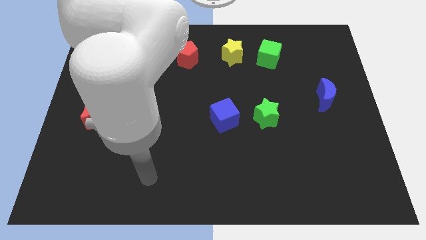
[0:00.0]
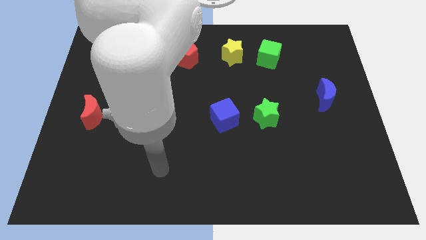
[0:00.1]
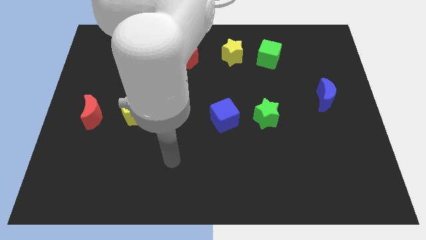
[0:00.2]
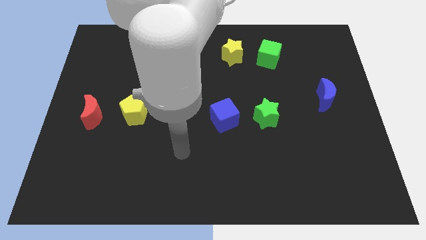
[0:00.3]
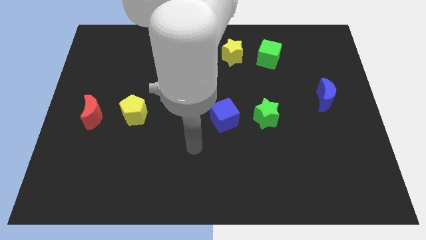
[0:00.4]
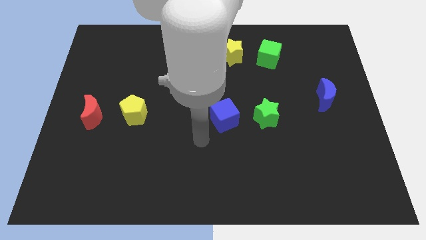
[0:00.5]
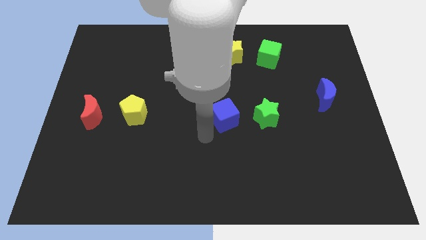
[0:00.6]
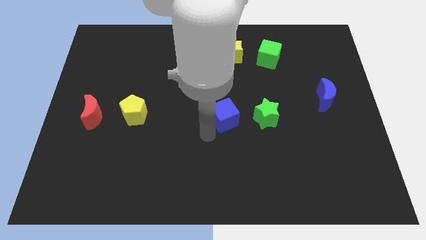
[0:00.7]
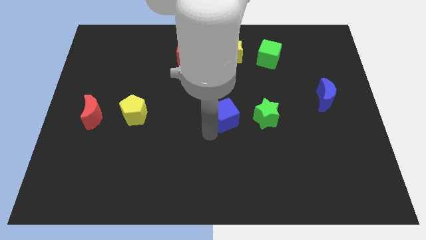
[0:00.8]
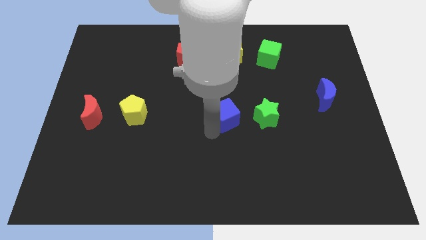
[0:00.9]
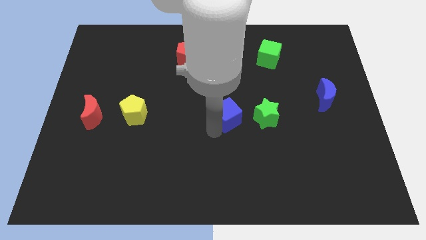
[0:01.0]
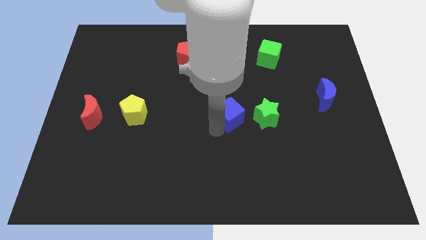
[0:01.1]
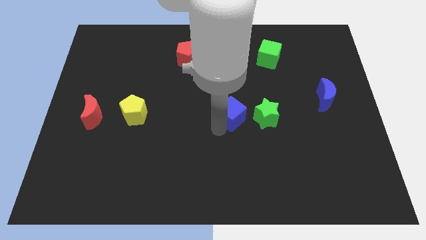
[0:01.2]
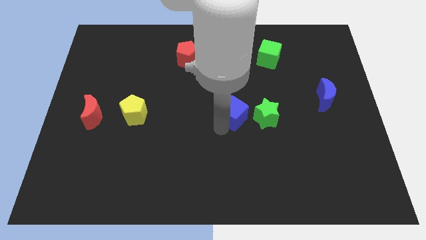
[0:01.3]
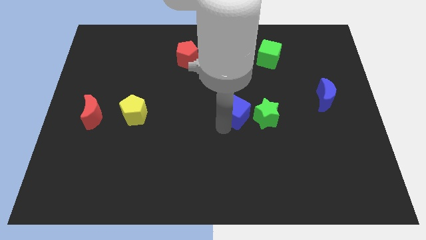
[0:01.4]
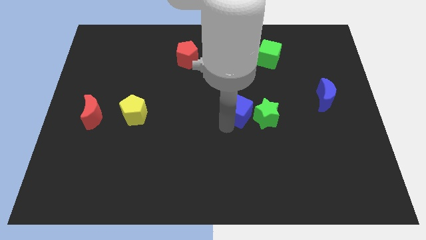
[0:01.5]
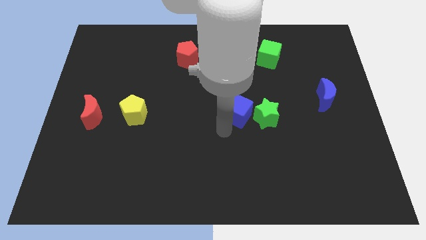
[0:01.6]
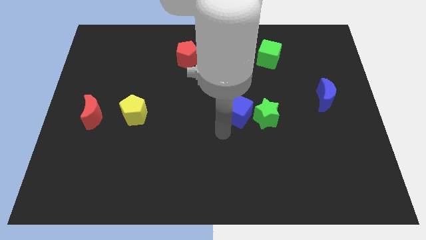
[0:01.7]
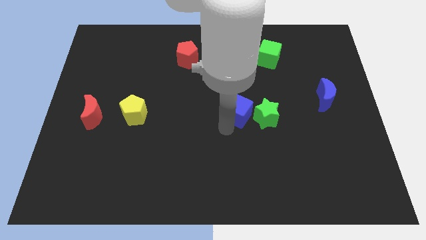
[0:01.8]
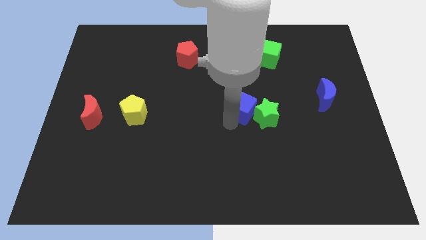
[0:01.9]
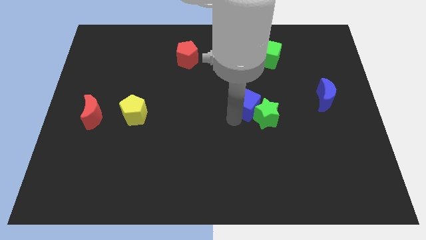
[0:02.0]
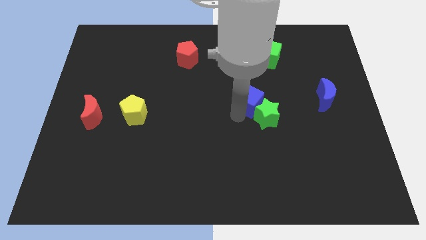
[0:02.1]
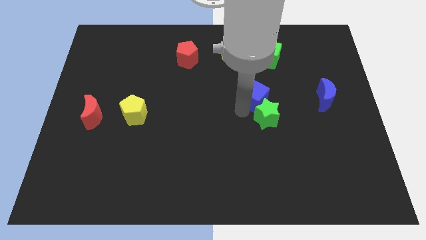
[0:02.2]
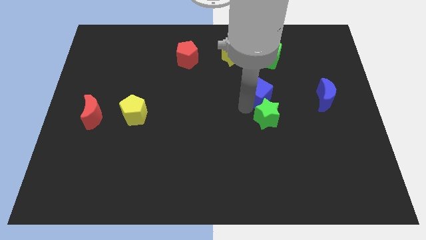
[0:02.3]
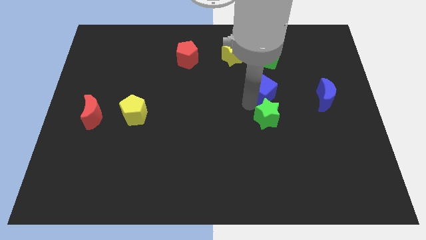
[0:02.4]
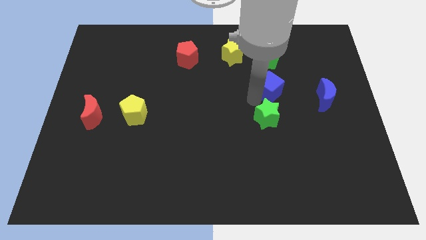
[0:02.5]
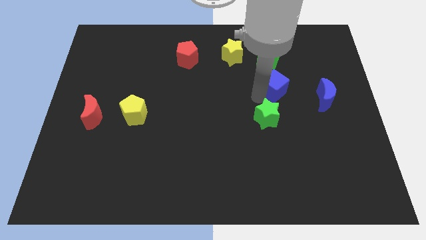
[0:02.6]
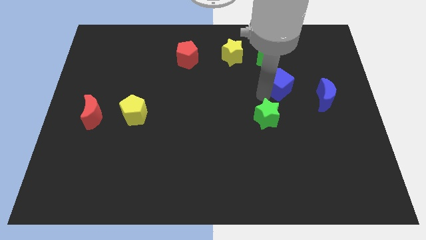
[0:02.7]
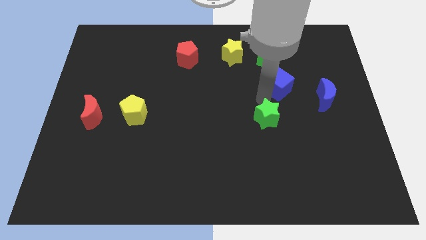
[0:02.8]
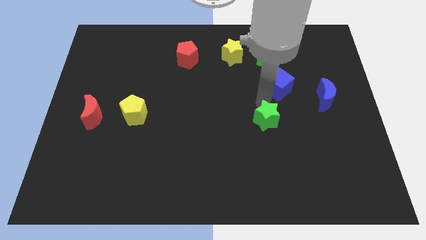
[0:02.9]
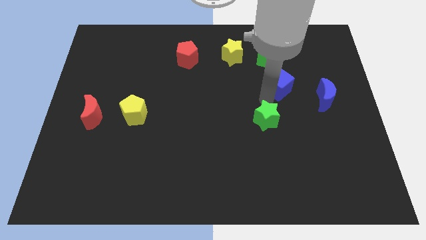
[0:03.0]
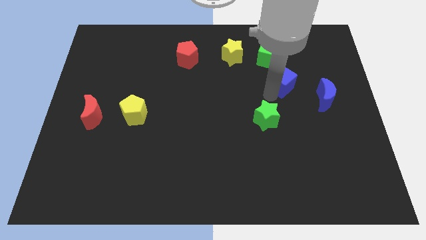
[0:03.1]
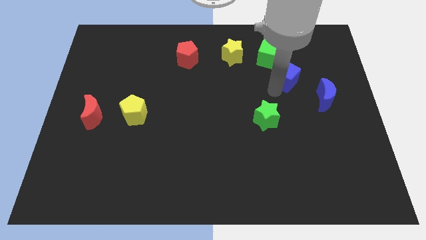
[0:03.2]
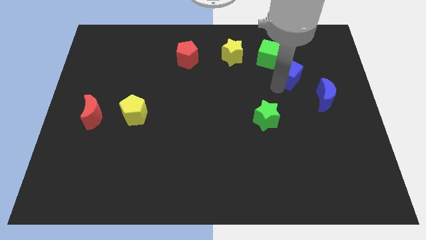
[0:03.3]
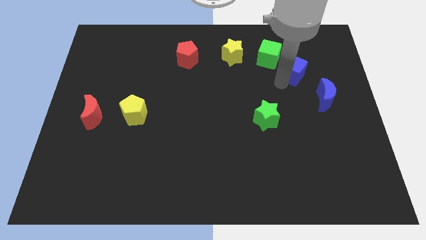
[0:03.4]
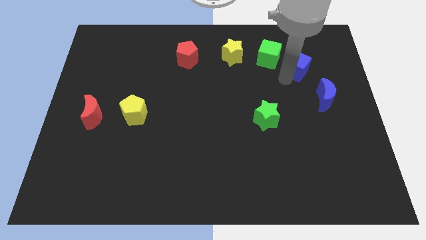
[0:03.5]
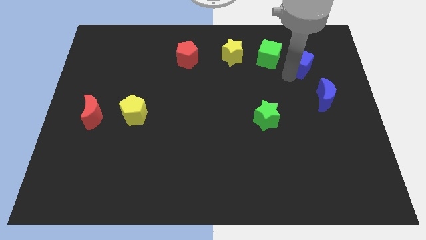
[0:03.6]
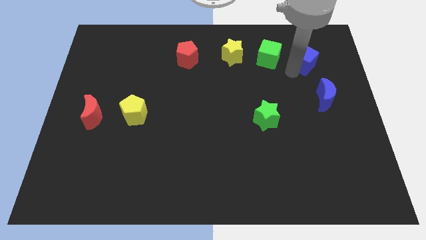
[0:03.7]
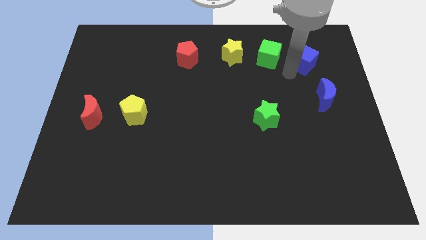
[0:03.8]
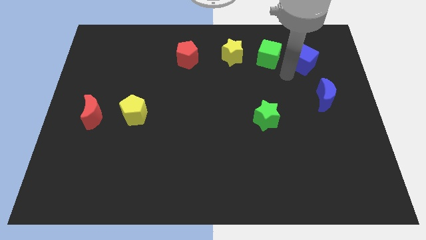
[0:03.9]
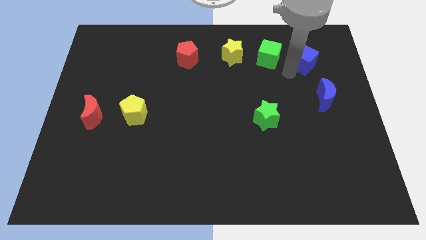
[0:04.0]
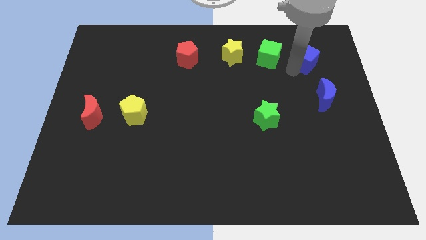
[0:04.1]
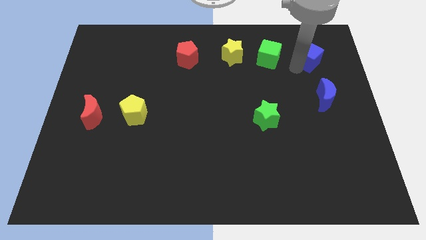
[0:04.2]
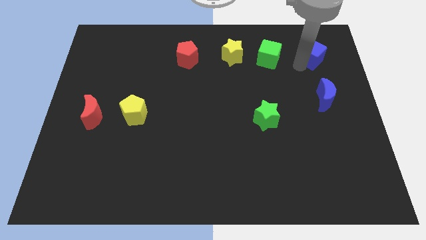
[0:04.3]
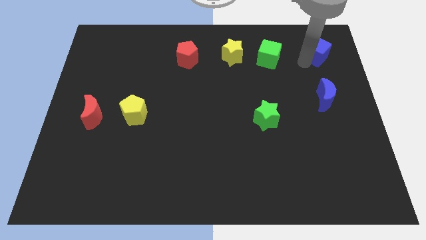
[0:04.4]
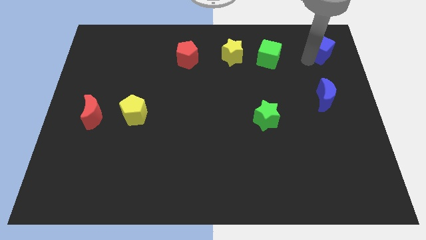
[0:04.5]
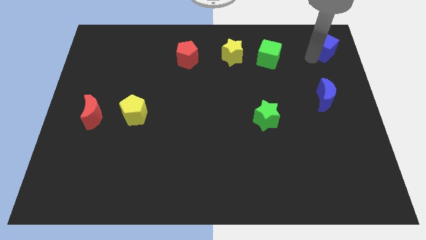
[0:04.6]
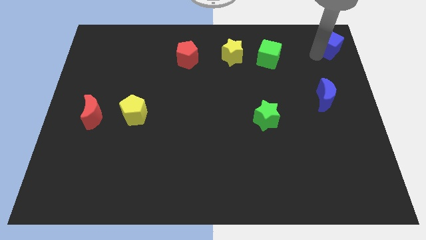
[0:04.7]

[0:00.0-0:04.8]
slide the blue cube to the top right corner

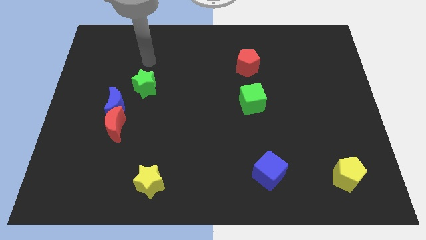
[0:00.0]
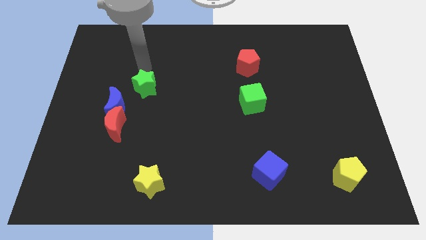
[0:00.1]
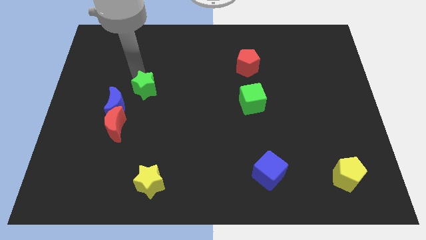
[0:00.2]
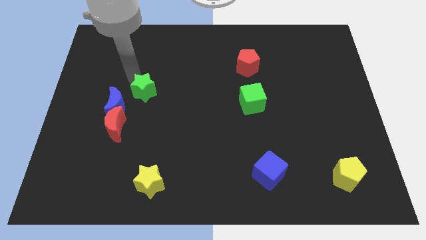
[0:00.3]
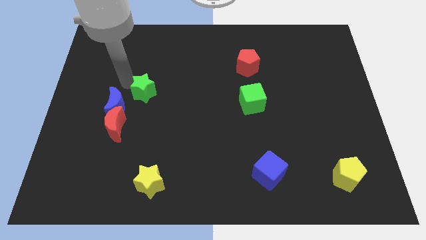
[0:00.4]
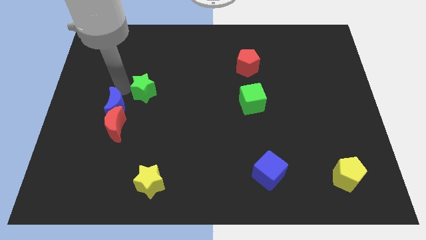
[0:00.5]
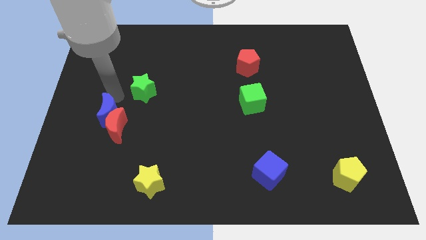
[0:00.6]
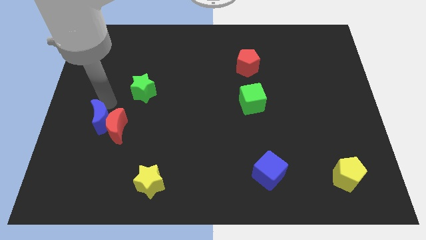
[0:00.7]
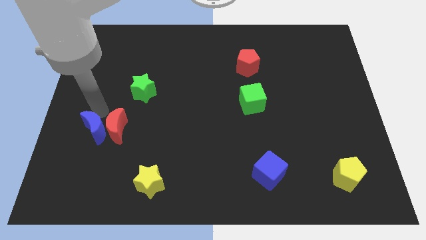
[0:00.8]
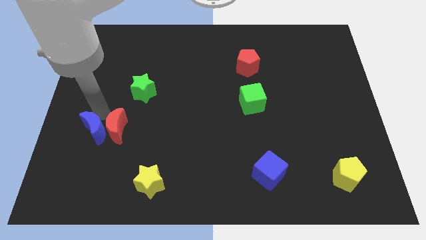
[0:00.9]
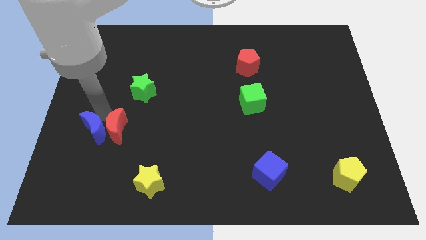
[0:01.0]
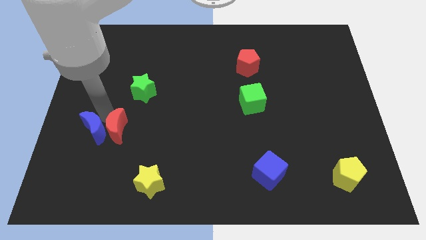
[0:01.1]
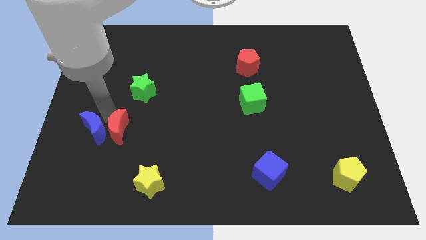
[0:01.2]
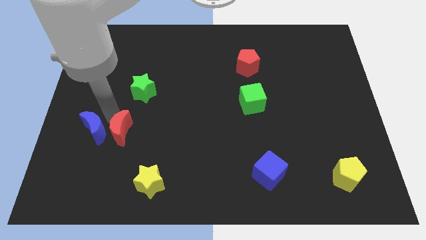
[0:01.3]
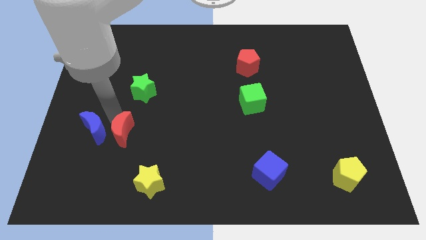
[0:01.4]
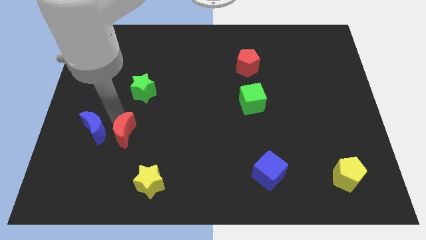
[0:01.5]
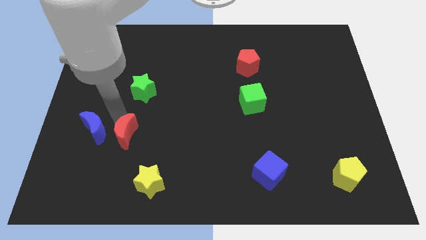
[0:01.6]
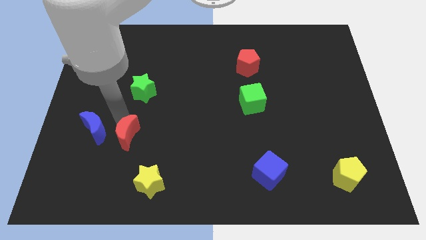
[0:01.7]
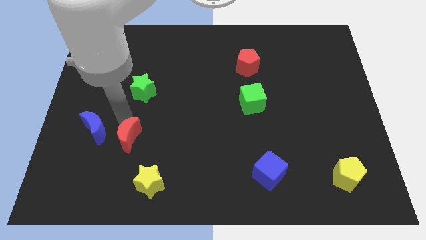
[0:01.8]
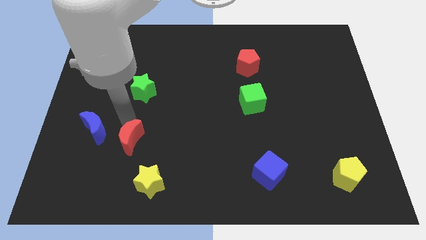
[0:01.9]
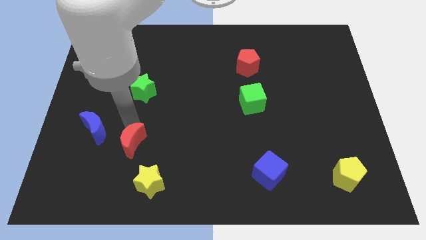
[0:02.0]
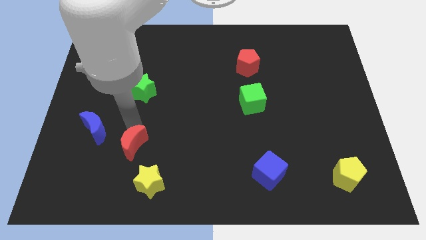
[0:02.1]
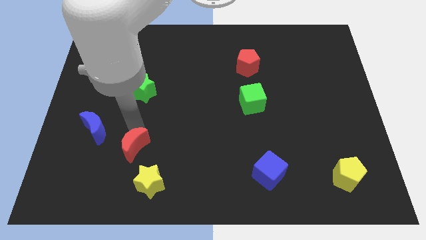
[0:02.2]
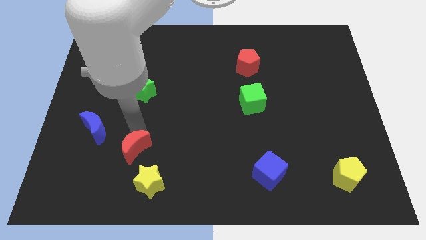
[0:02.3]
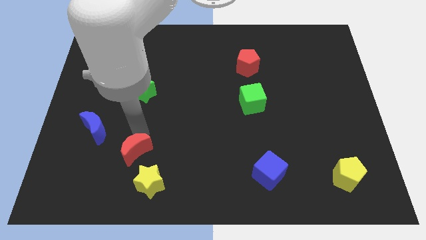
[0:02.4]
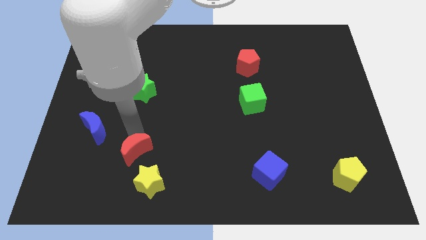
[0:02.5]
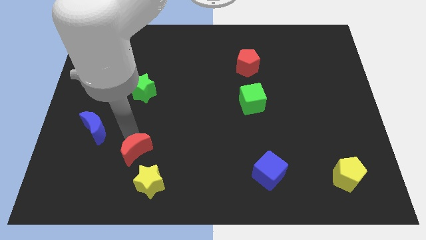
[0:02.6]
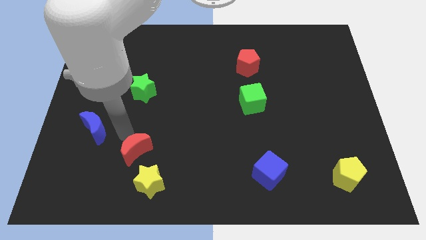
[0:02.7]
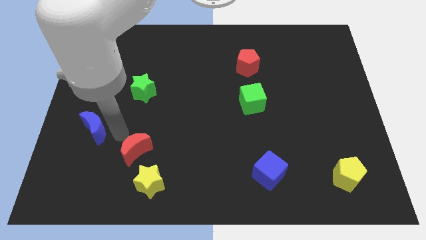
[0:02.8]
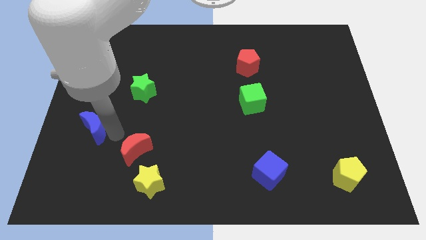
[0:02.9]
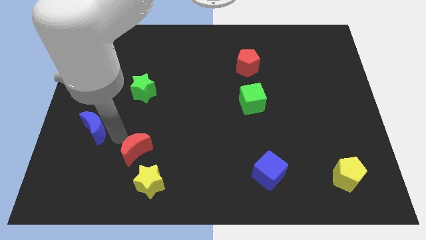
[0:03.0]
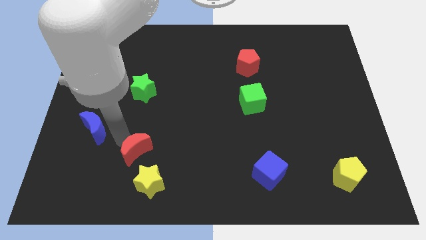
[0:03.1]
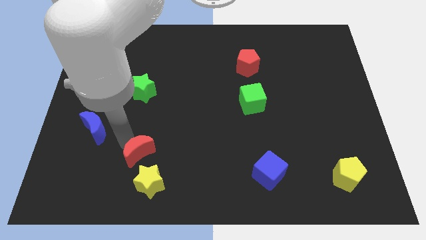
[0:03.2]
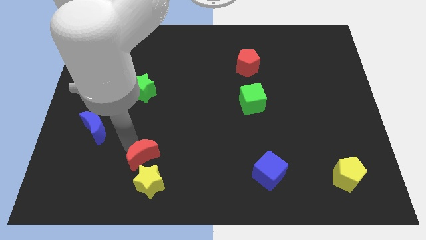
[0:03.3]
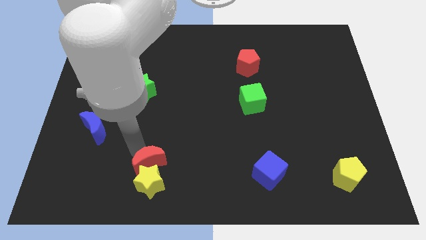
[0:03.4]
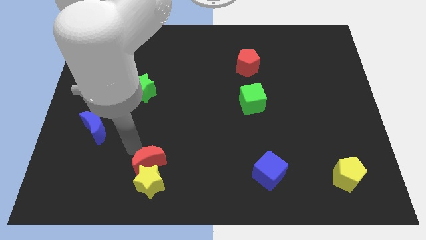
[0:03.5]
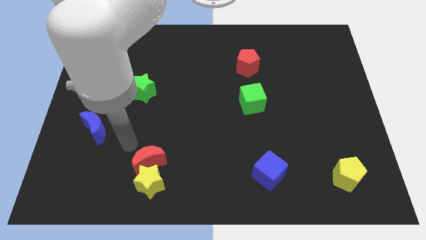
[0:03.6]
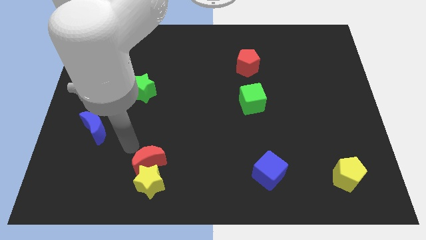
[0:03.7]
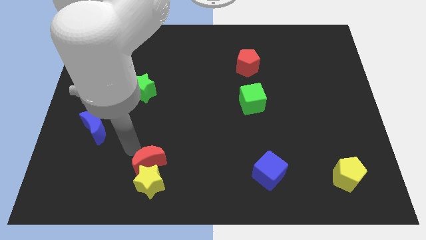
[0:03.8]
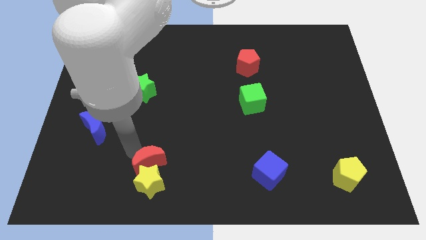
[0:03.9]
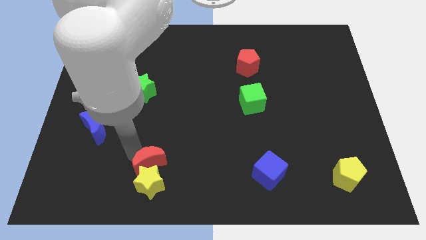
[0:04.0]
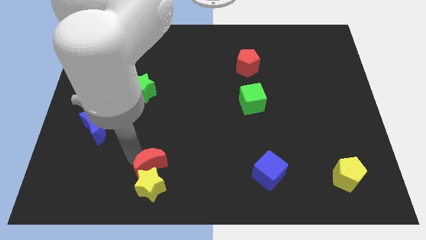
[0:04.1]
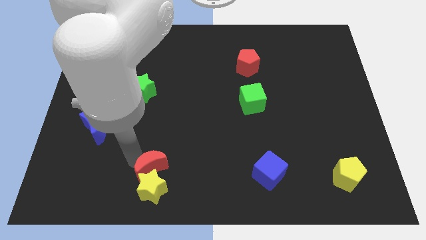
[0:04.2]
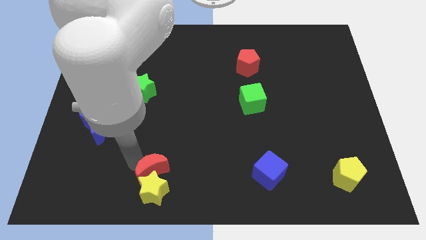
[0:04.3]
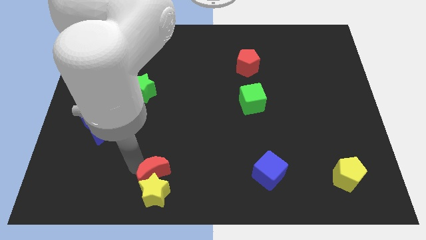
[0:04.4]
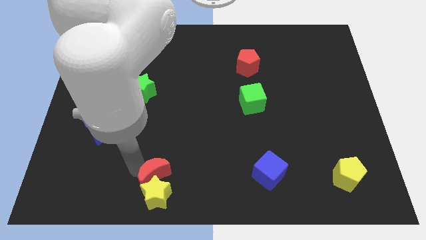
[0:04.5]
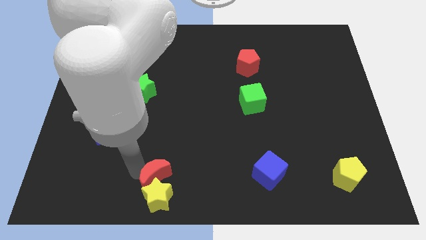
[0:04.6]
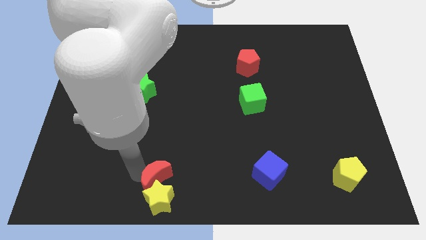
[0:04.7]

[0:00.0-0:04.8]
push the red moon to the bottom
